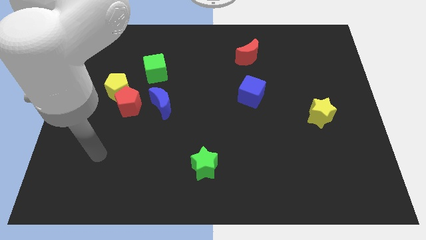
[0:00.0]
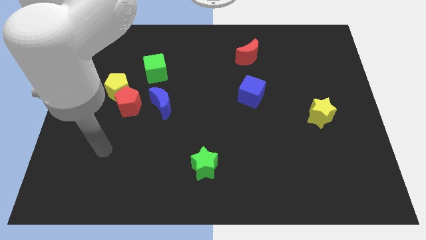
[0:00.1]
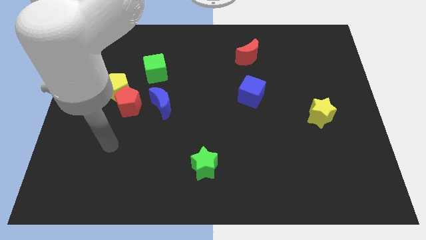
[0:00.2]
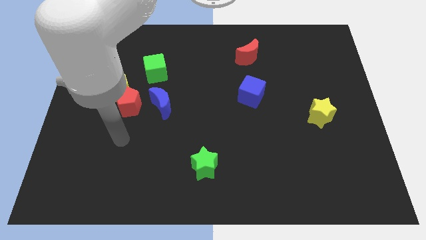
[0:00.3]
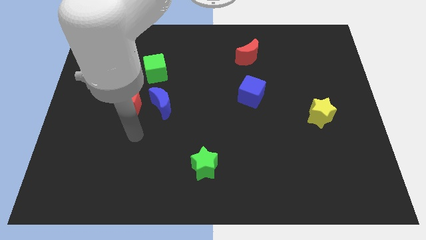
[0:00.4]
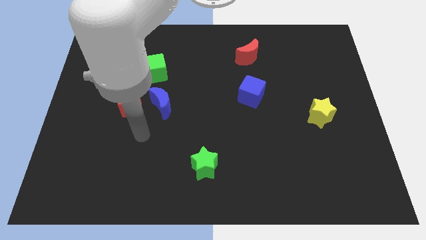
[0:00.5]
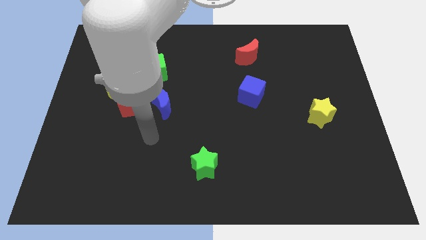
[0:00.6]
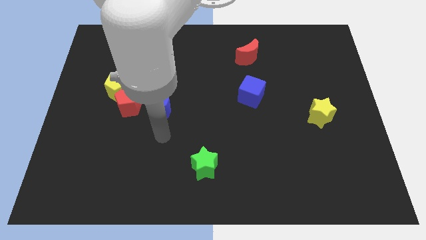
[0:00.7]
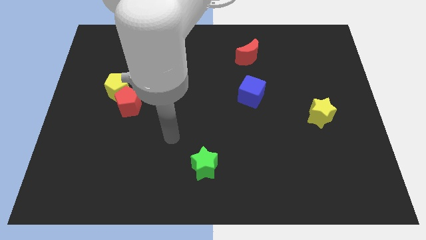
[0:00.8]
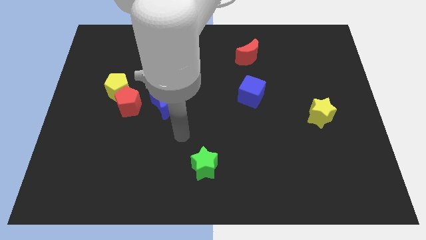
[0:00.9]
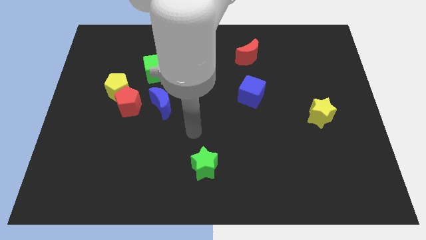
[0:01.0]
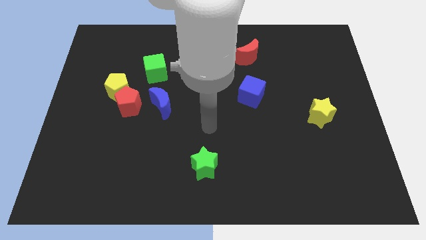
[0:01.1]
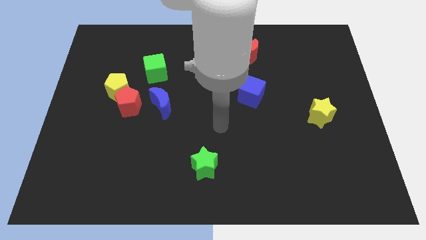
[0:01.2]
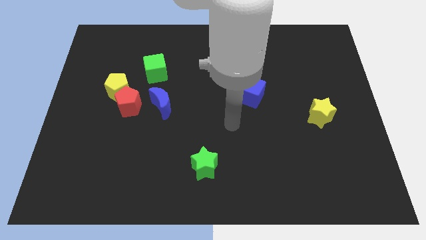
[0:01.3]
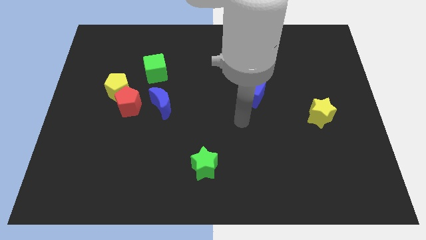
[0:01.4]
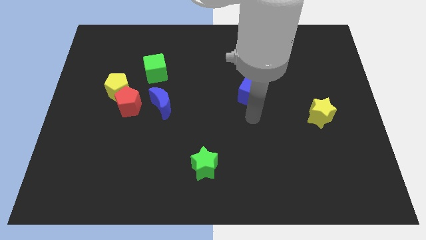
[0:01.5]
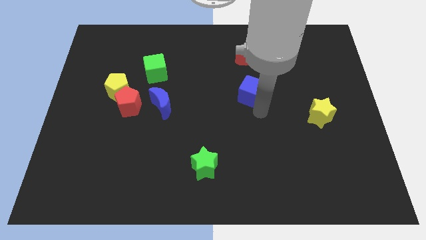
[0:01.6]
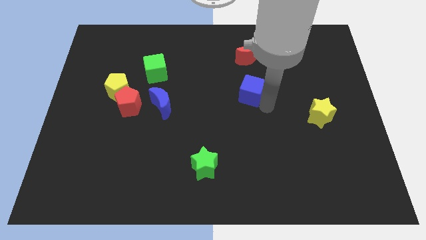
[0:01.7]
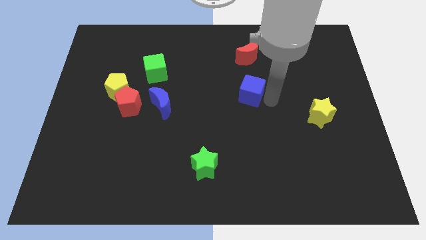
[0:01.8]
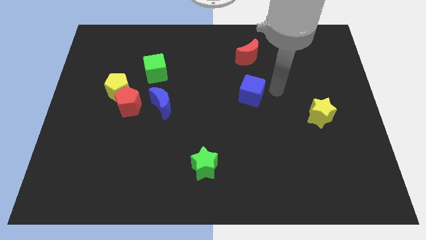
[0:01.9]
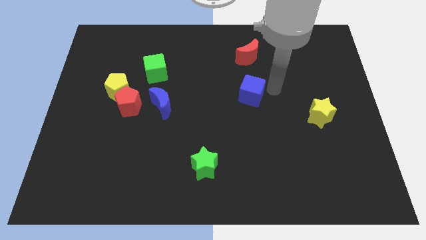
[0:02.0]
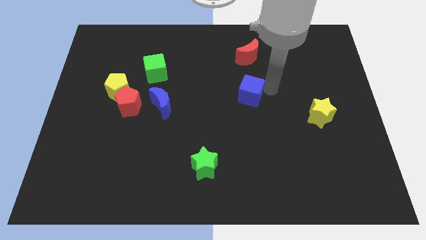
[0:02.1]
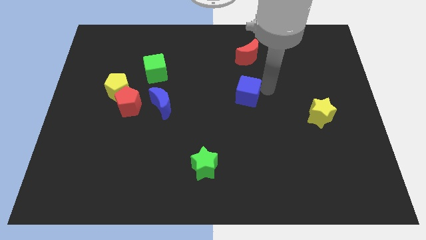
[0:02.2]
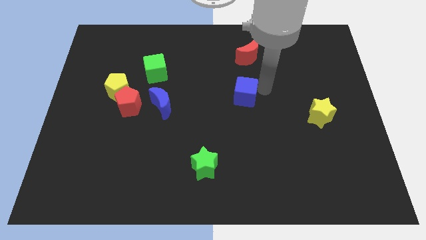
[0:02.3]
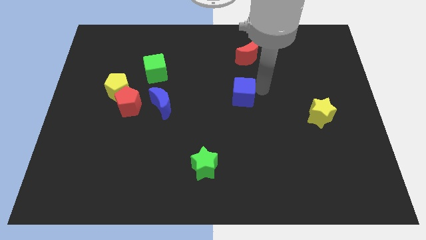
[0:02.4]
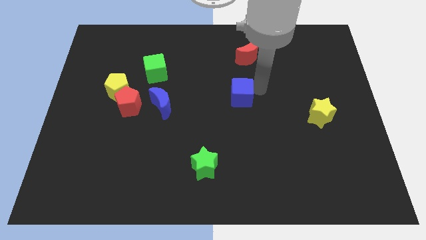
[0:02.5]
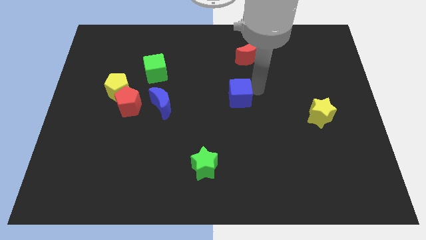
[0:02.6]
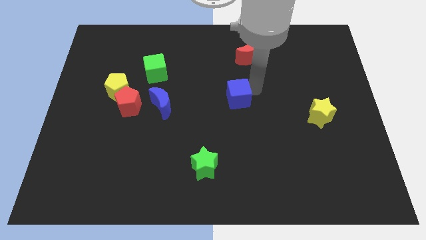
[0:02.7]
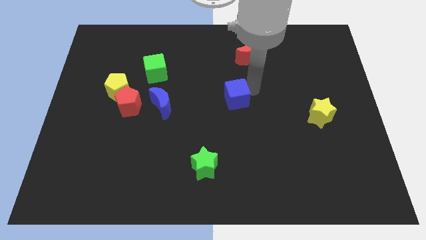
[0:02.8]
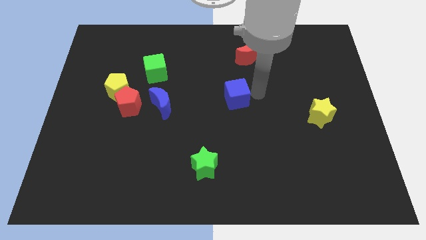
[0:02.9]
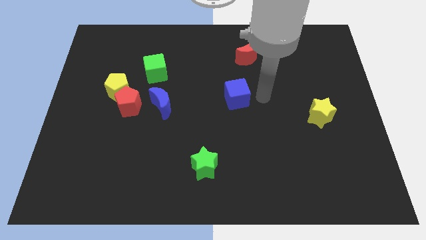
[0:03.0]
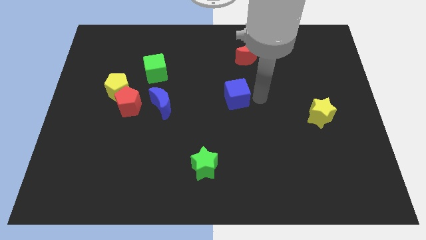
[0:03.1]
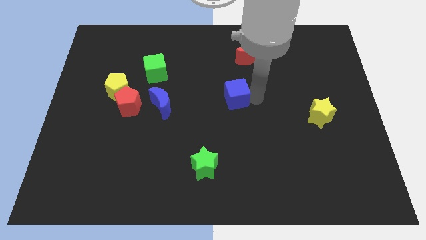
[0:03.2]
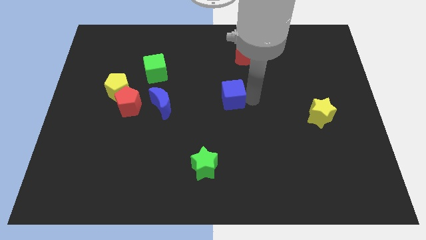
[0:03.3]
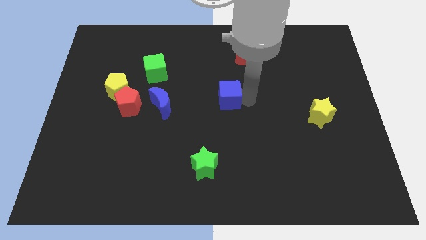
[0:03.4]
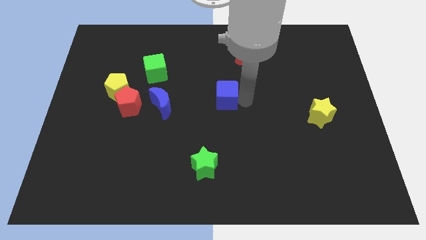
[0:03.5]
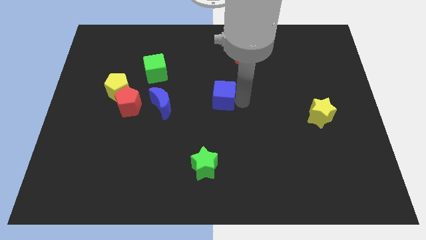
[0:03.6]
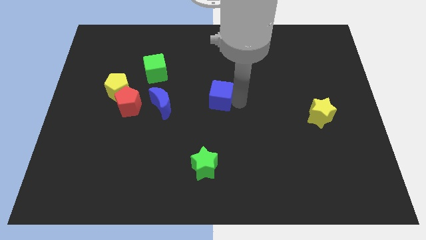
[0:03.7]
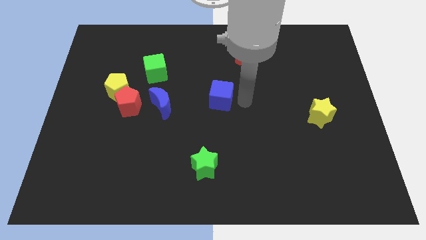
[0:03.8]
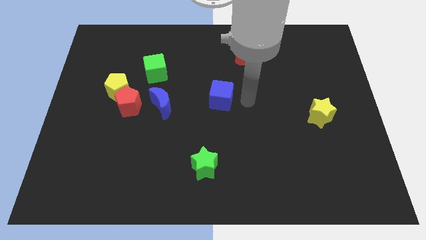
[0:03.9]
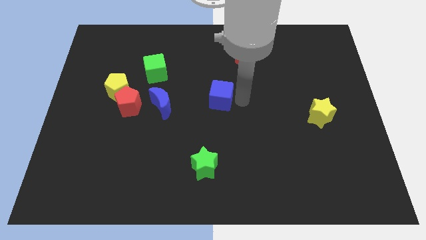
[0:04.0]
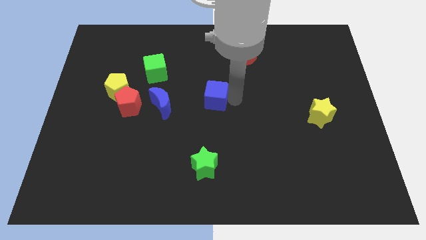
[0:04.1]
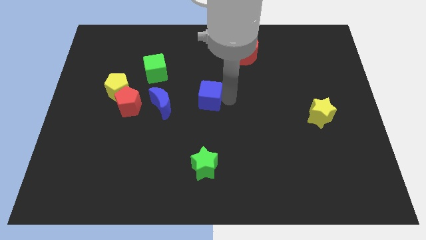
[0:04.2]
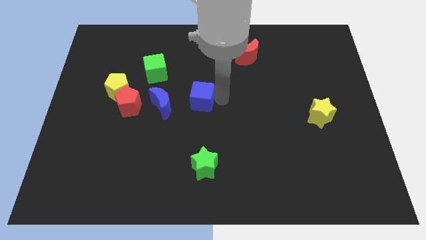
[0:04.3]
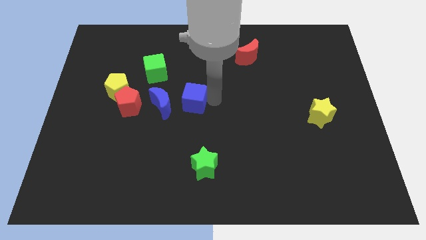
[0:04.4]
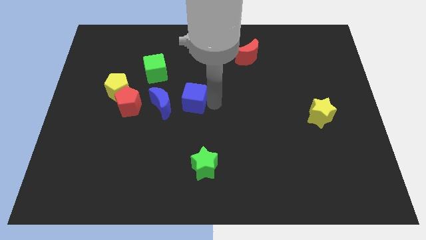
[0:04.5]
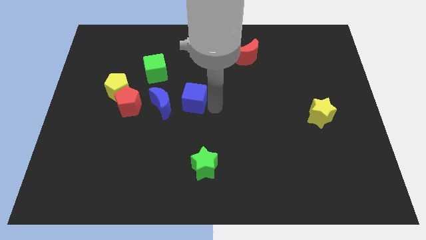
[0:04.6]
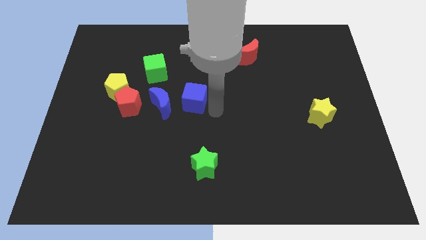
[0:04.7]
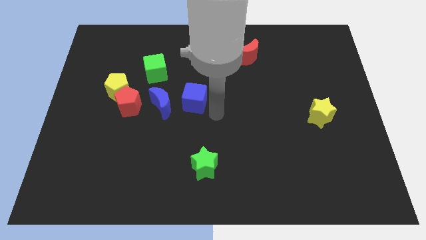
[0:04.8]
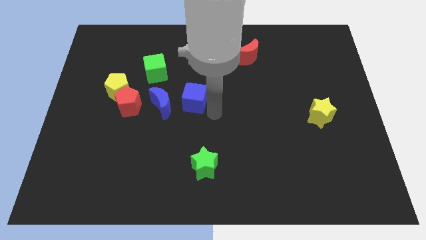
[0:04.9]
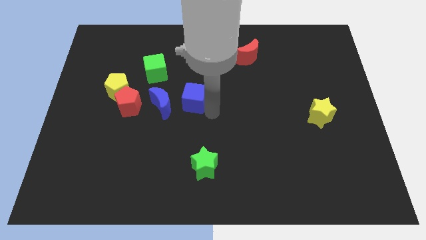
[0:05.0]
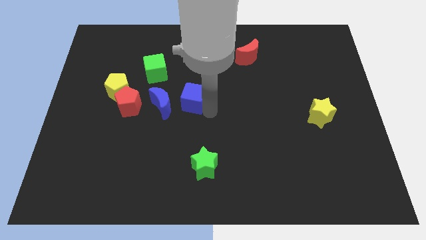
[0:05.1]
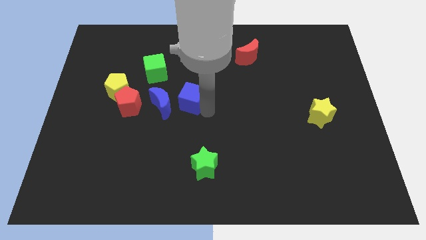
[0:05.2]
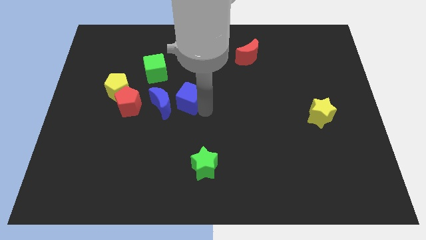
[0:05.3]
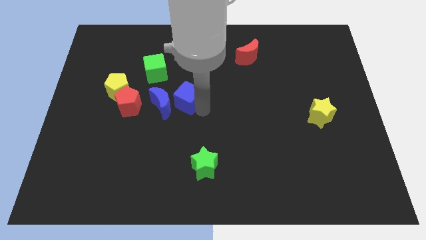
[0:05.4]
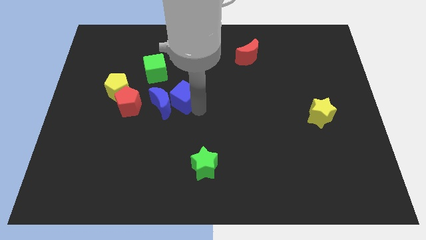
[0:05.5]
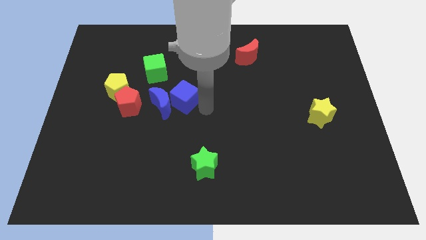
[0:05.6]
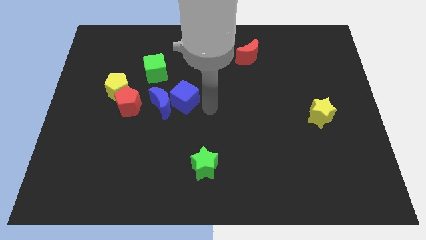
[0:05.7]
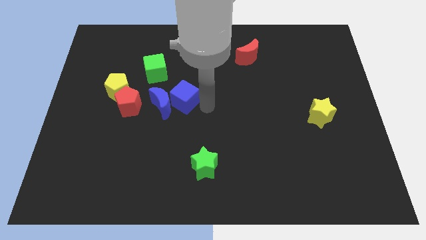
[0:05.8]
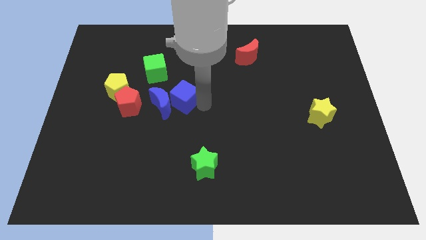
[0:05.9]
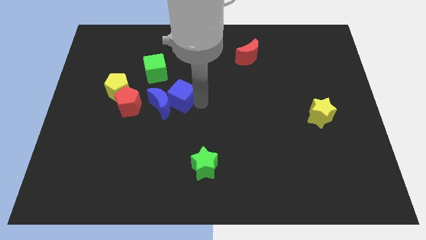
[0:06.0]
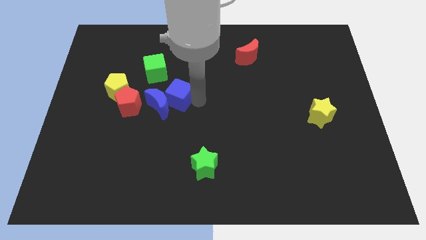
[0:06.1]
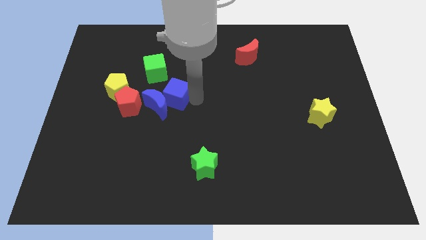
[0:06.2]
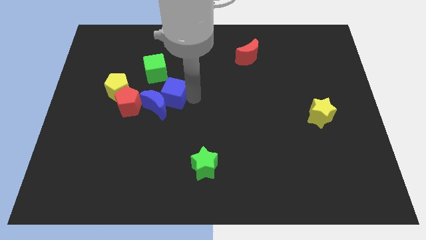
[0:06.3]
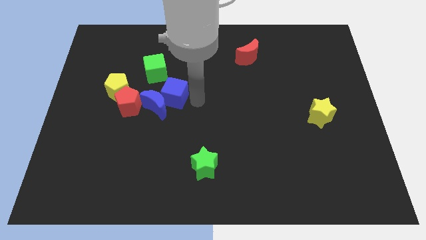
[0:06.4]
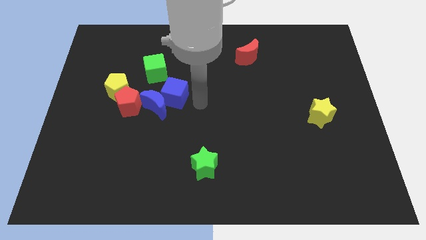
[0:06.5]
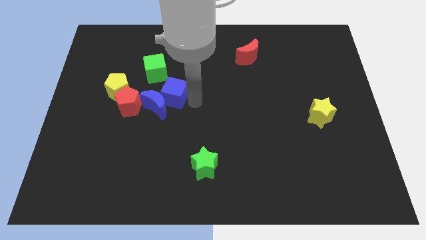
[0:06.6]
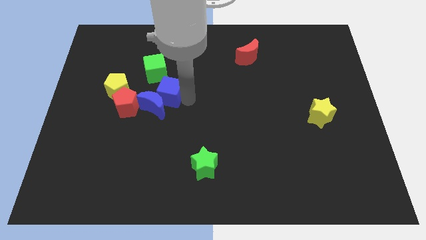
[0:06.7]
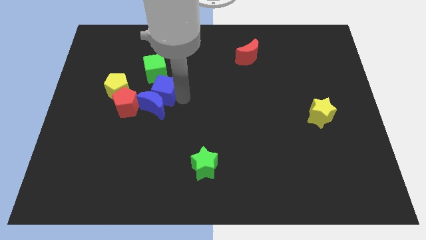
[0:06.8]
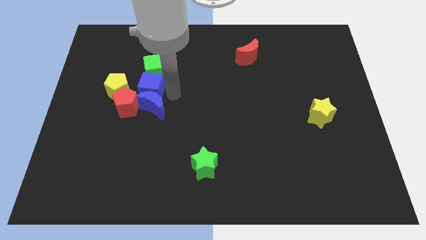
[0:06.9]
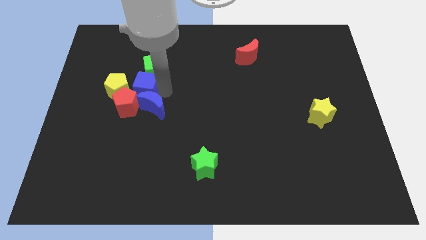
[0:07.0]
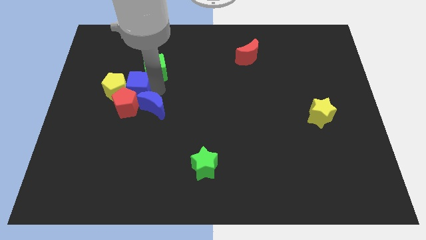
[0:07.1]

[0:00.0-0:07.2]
put the blue cube close to the yellow pentagon

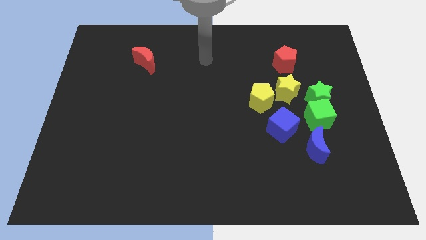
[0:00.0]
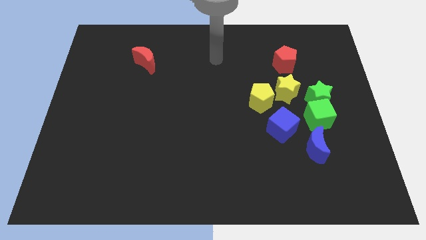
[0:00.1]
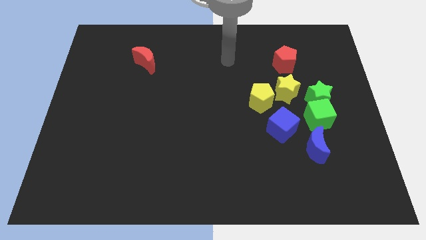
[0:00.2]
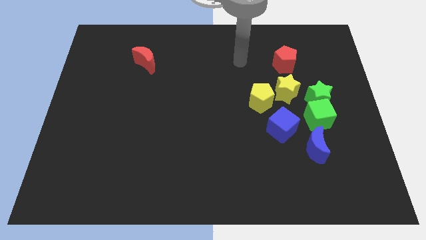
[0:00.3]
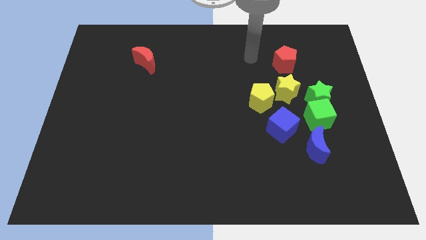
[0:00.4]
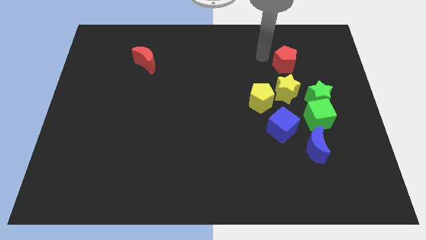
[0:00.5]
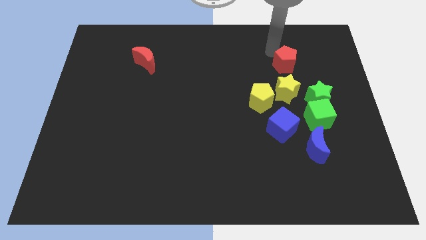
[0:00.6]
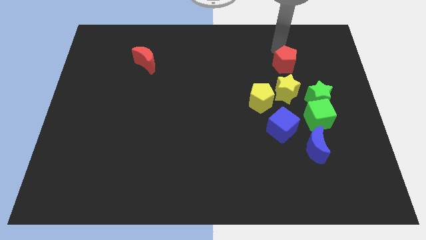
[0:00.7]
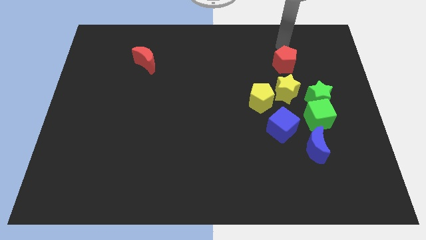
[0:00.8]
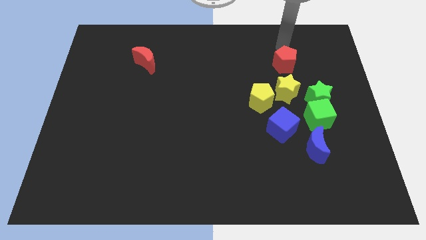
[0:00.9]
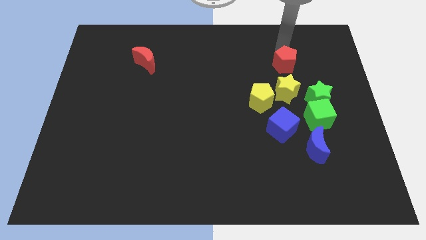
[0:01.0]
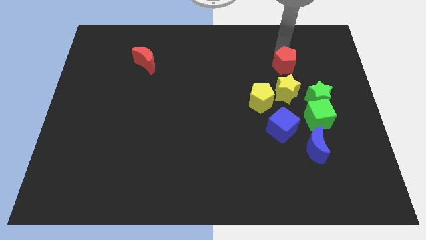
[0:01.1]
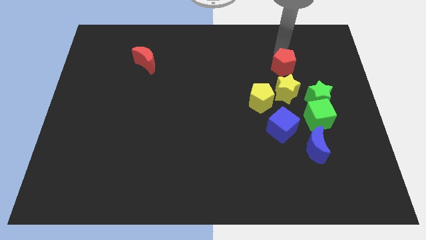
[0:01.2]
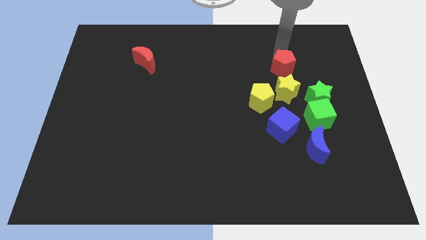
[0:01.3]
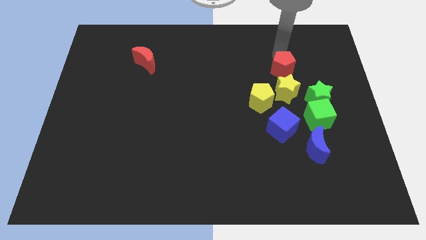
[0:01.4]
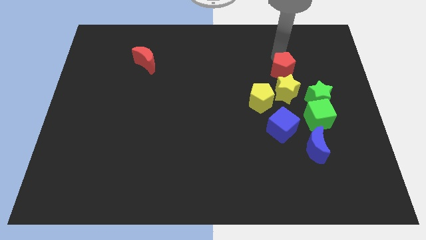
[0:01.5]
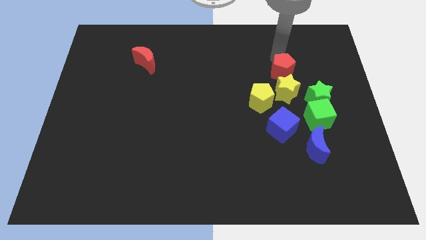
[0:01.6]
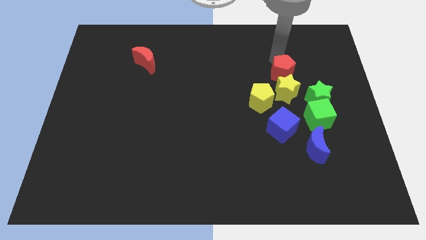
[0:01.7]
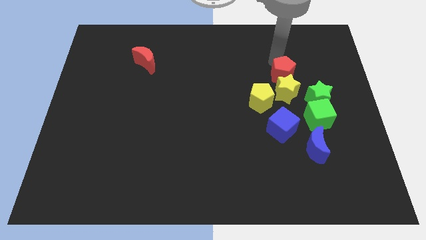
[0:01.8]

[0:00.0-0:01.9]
put the red pentagon next to the yellow star
